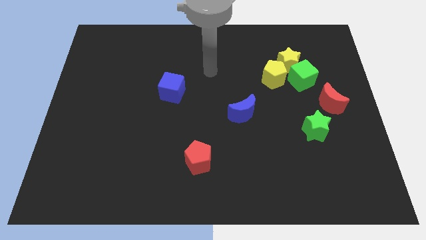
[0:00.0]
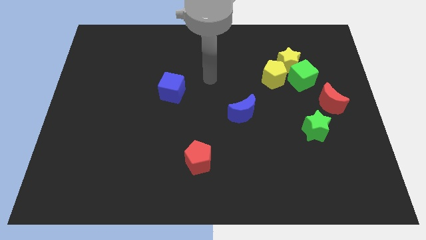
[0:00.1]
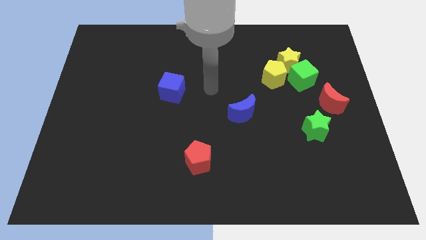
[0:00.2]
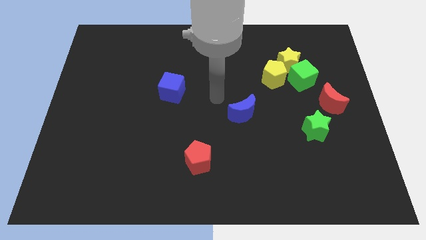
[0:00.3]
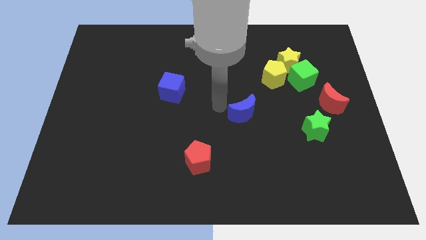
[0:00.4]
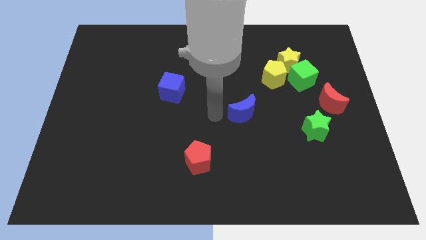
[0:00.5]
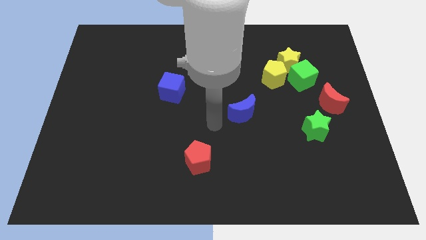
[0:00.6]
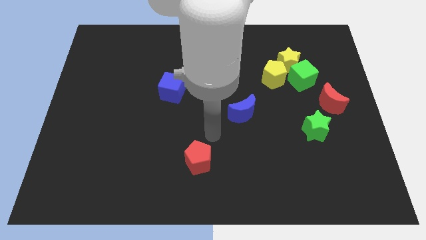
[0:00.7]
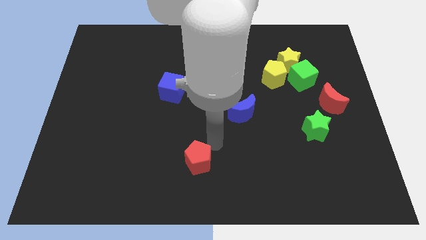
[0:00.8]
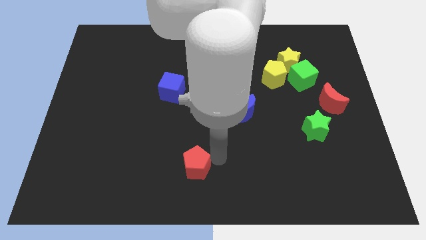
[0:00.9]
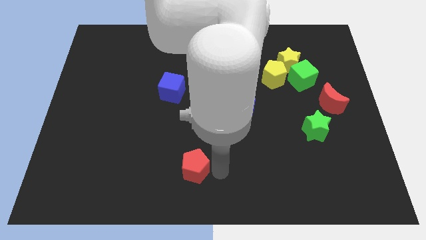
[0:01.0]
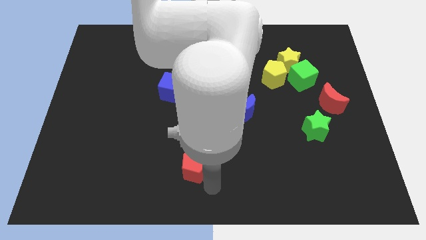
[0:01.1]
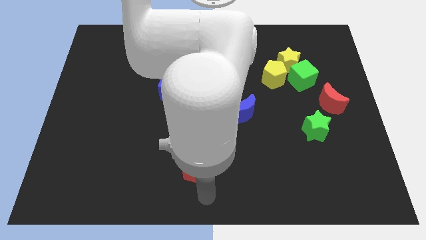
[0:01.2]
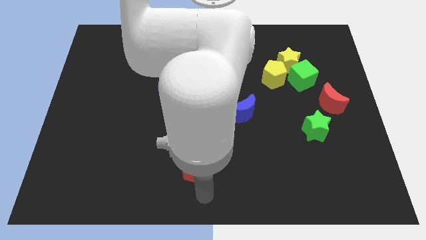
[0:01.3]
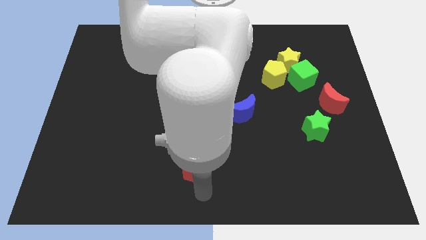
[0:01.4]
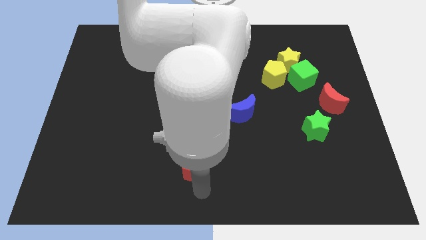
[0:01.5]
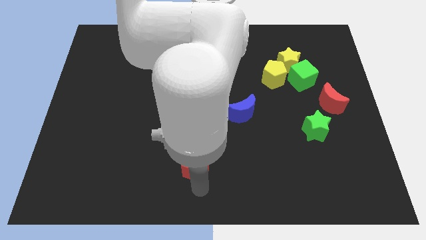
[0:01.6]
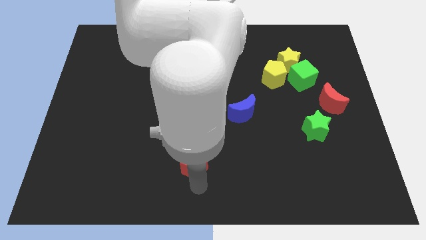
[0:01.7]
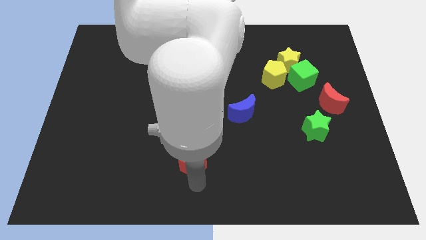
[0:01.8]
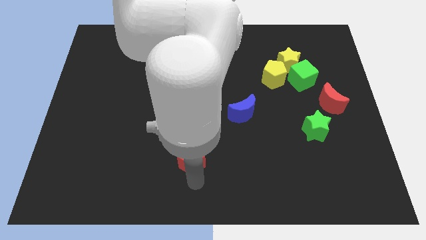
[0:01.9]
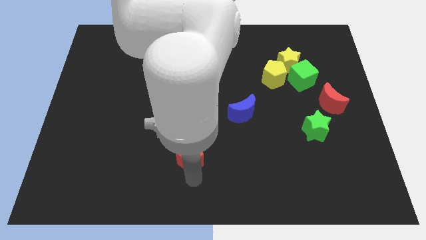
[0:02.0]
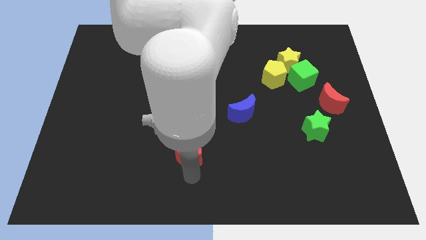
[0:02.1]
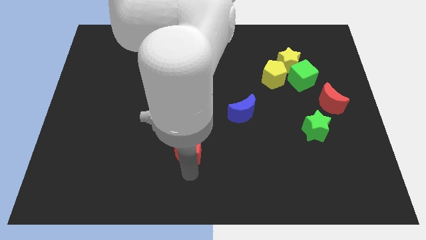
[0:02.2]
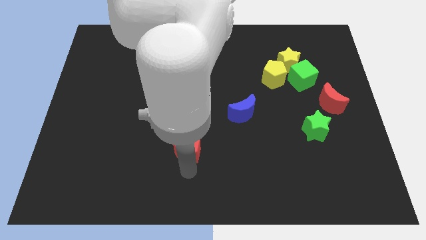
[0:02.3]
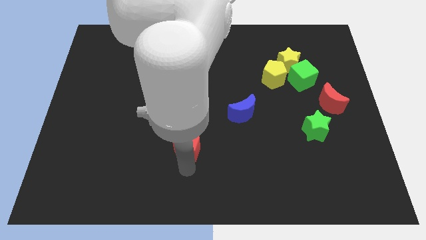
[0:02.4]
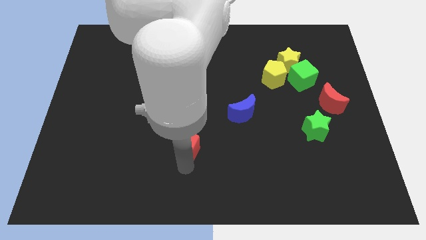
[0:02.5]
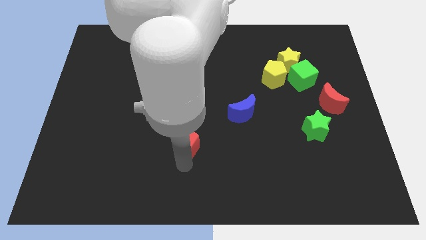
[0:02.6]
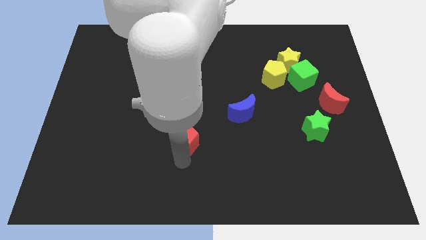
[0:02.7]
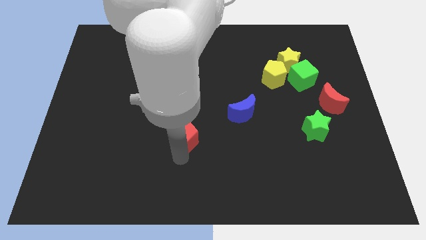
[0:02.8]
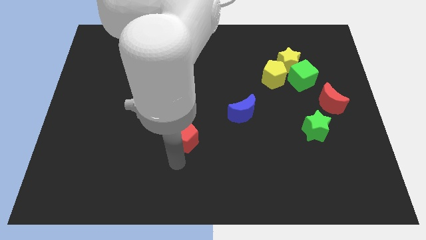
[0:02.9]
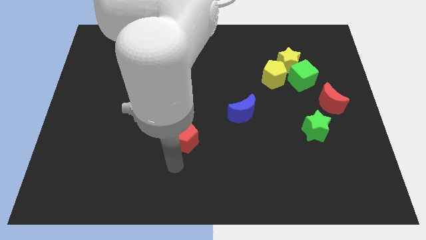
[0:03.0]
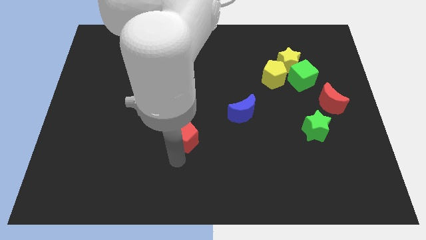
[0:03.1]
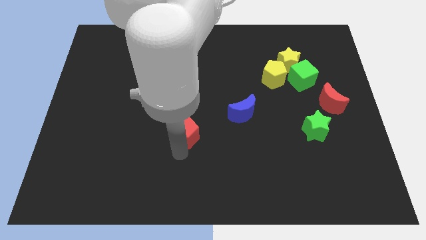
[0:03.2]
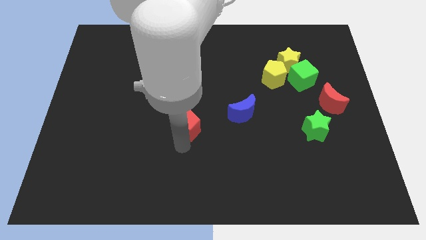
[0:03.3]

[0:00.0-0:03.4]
push the red pentagon up a little bit

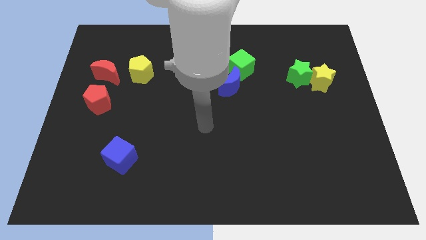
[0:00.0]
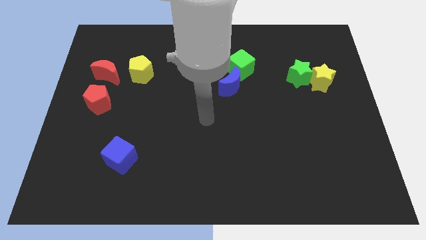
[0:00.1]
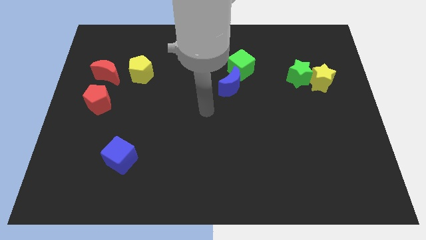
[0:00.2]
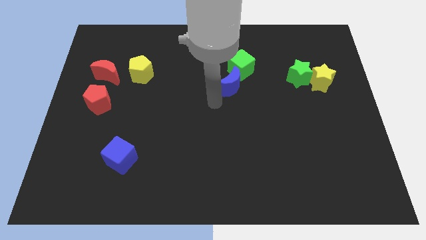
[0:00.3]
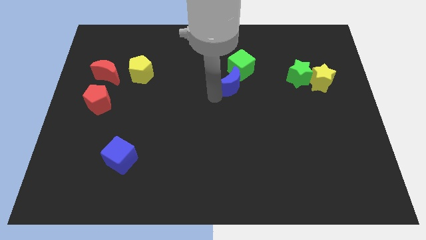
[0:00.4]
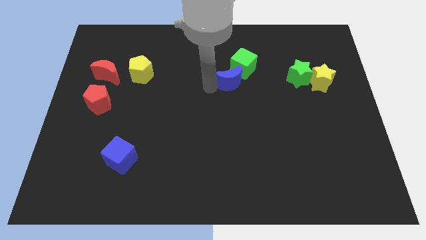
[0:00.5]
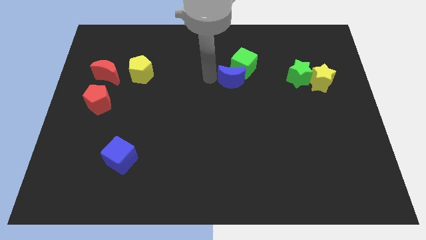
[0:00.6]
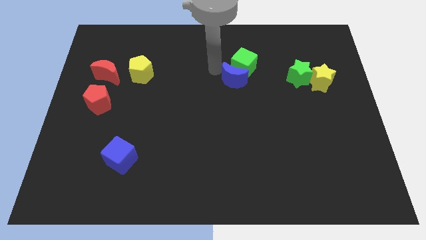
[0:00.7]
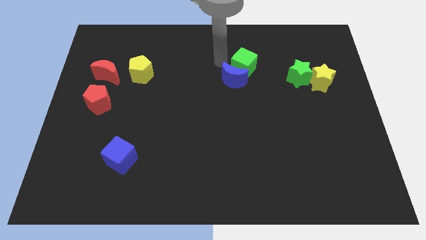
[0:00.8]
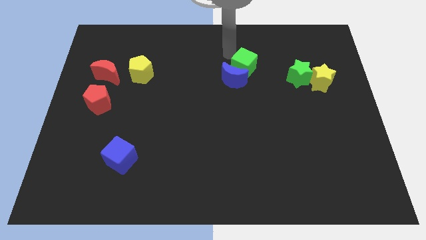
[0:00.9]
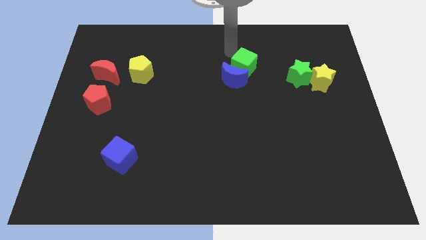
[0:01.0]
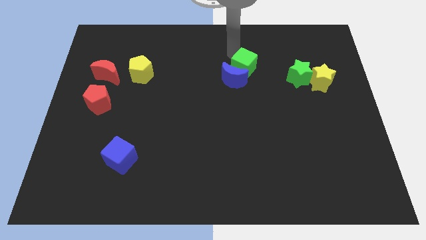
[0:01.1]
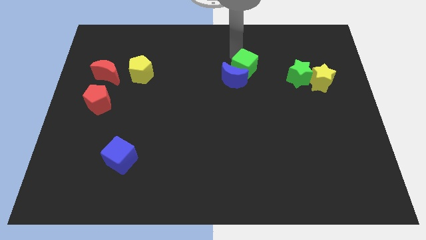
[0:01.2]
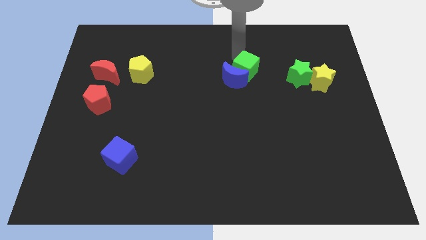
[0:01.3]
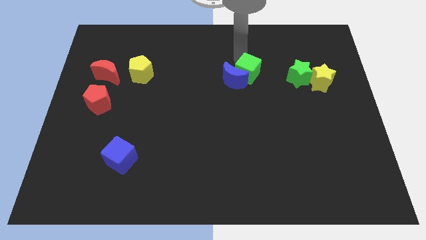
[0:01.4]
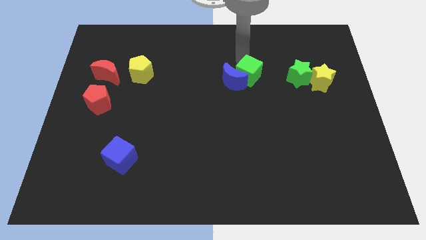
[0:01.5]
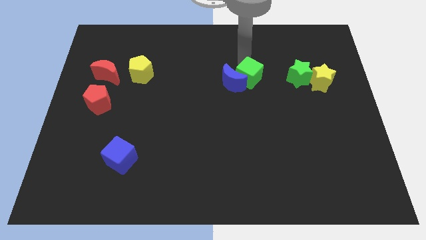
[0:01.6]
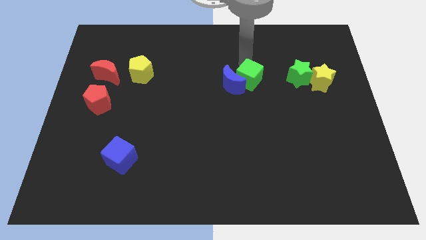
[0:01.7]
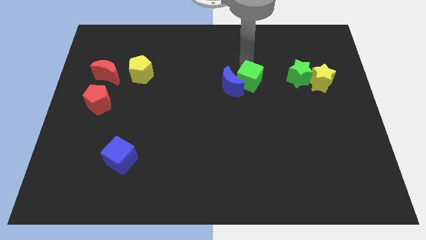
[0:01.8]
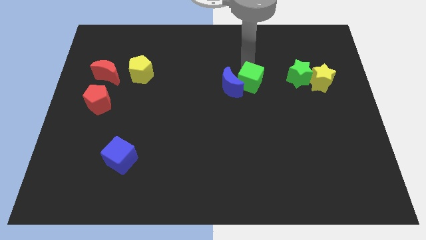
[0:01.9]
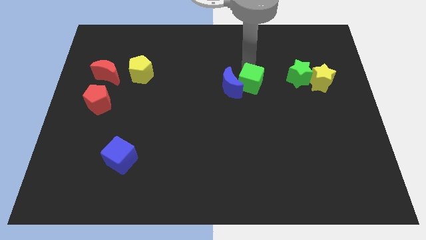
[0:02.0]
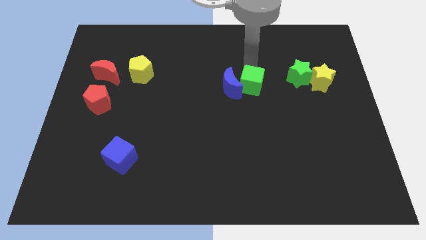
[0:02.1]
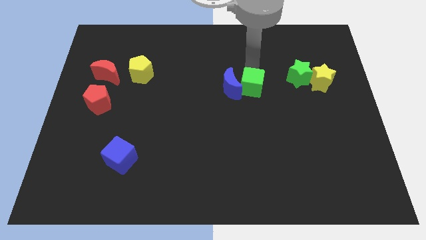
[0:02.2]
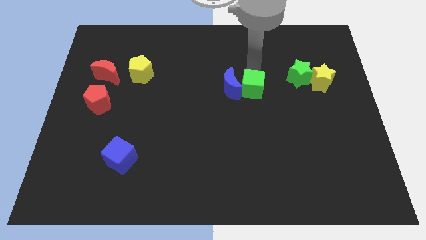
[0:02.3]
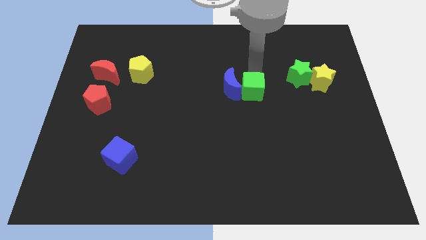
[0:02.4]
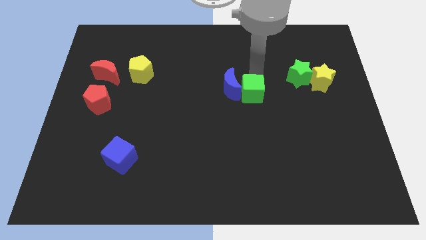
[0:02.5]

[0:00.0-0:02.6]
push the green cube a little down and to the right

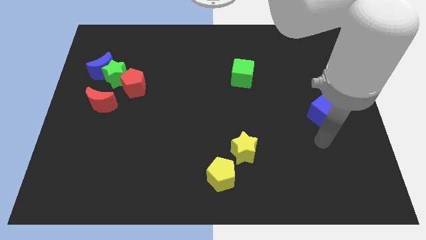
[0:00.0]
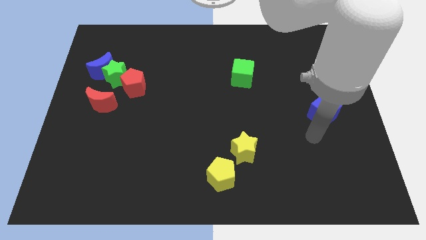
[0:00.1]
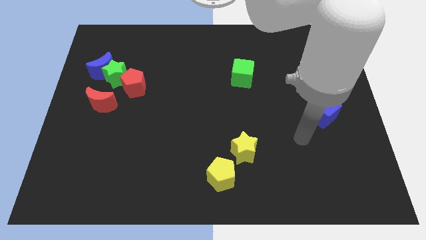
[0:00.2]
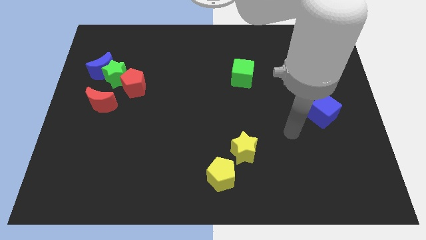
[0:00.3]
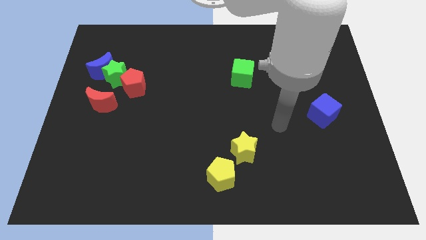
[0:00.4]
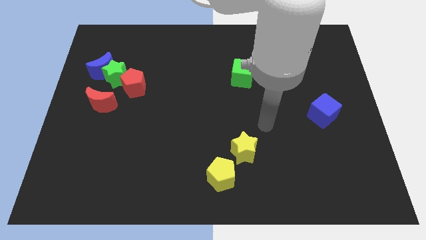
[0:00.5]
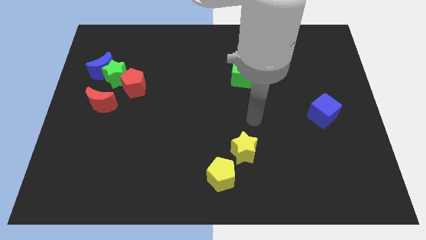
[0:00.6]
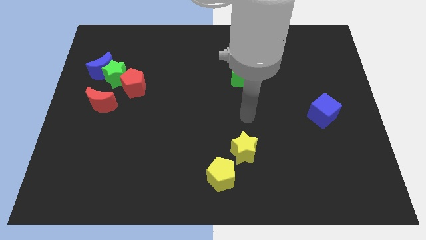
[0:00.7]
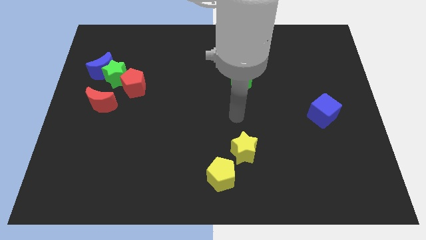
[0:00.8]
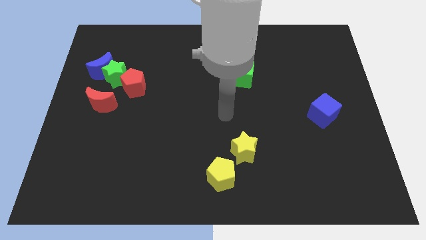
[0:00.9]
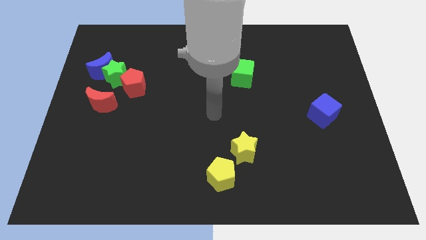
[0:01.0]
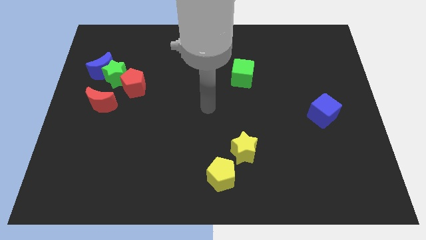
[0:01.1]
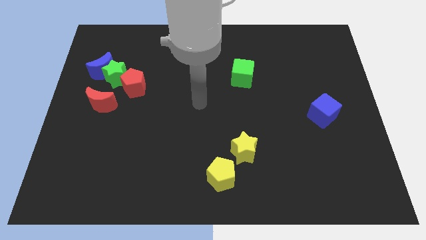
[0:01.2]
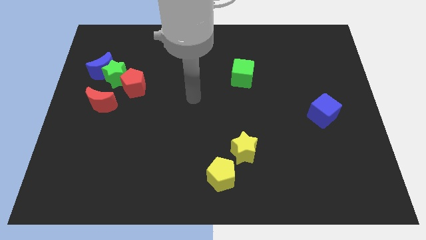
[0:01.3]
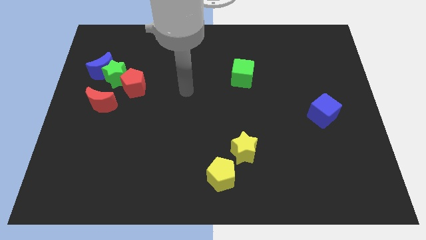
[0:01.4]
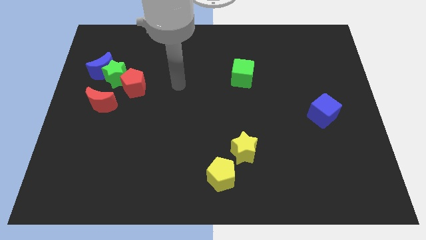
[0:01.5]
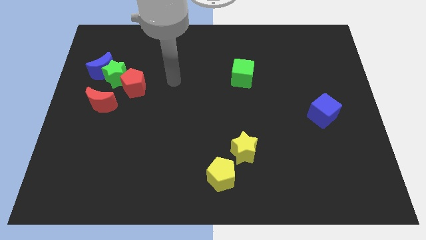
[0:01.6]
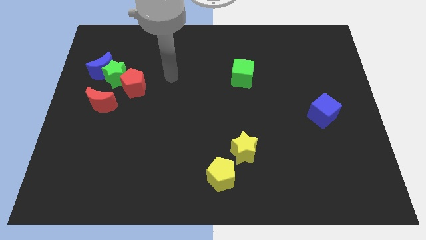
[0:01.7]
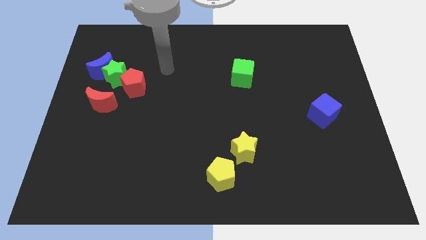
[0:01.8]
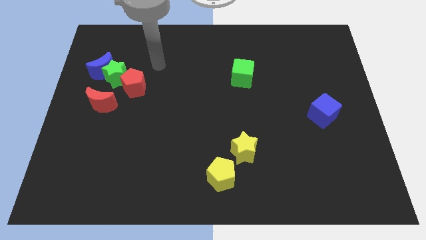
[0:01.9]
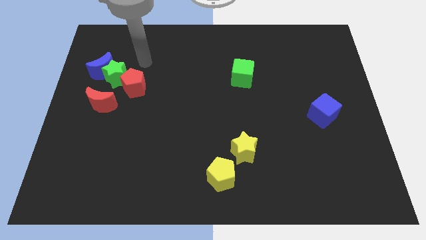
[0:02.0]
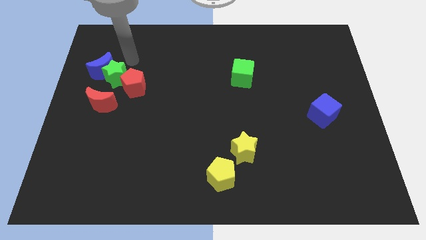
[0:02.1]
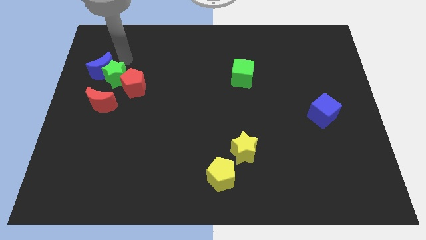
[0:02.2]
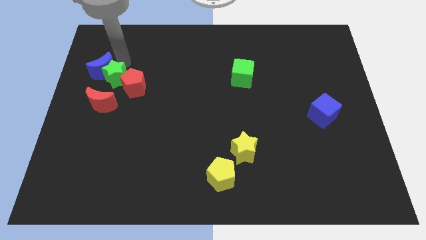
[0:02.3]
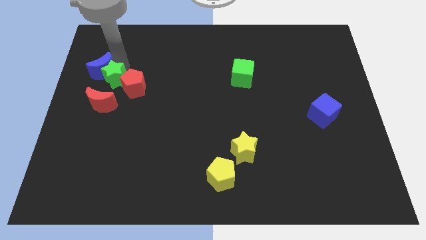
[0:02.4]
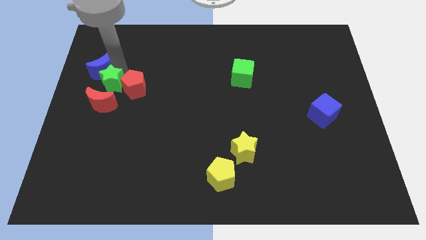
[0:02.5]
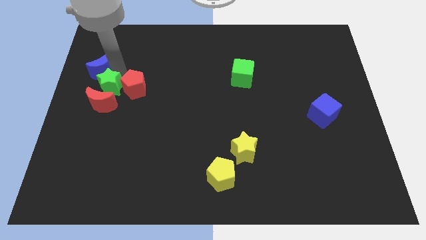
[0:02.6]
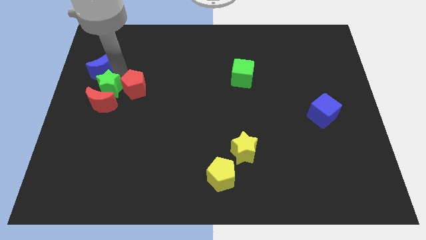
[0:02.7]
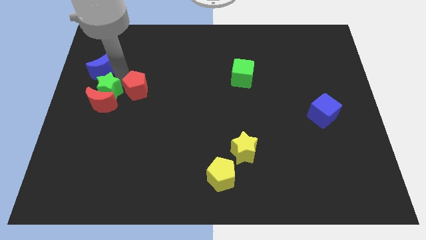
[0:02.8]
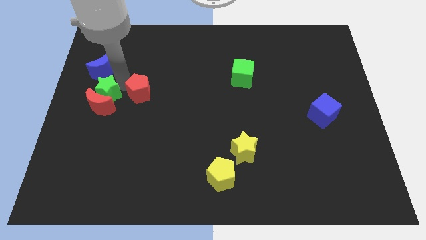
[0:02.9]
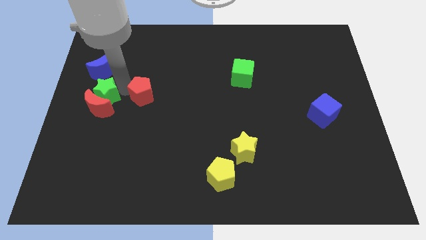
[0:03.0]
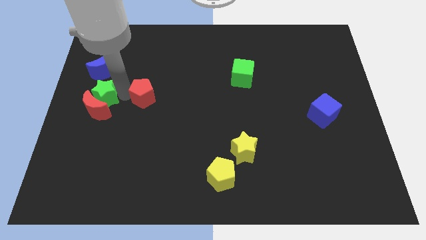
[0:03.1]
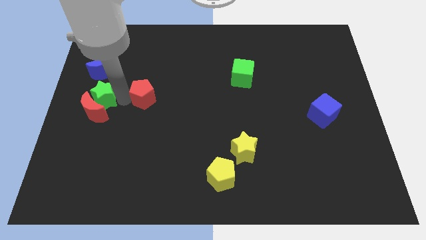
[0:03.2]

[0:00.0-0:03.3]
slightly move the green star down
